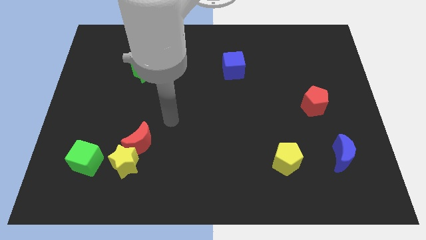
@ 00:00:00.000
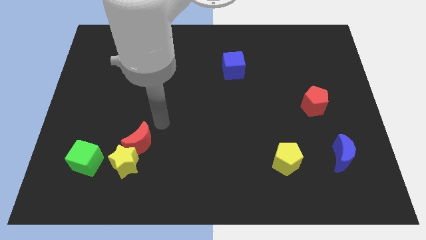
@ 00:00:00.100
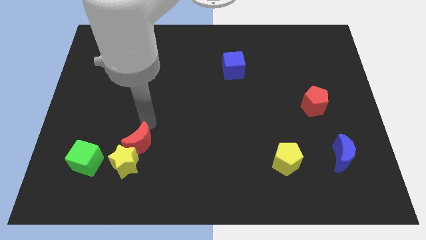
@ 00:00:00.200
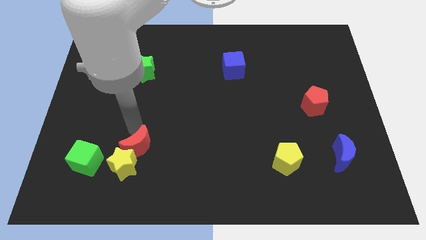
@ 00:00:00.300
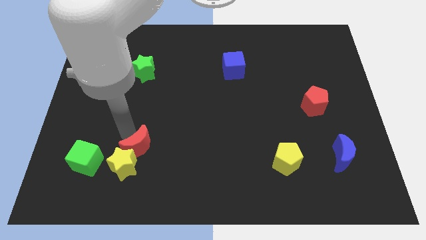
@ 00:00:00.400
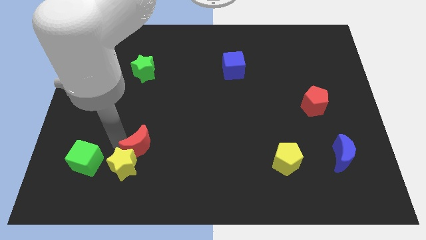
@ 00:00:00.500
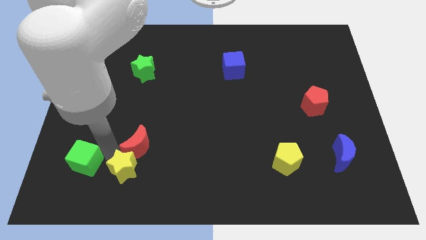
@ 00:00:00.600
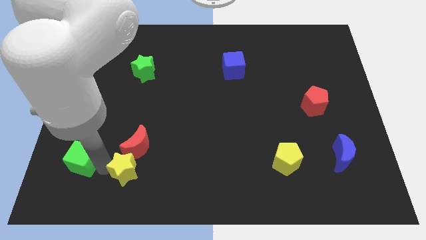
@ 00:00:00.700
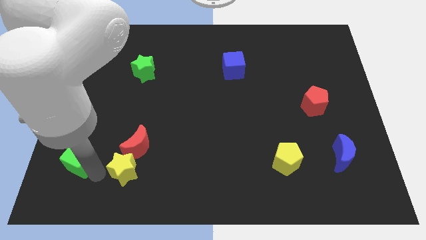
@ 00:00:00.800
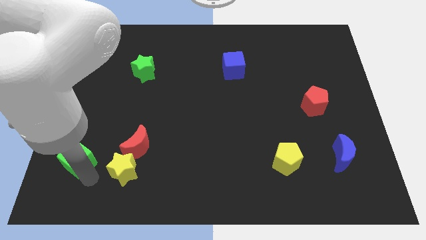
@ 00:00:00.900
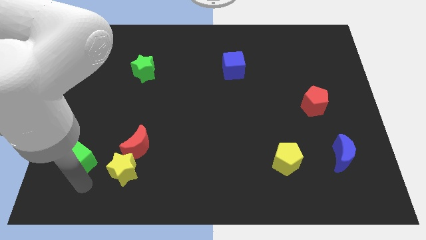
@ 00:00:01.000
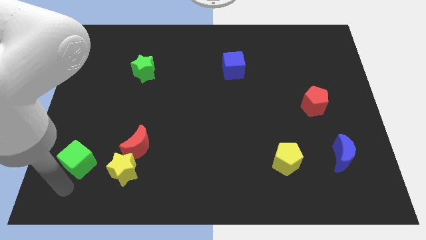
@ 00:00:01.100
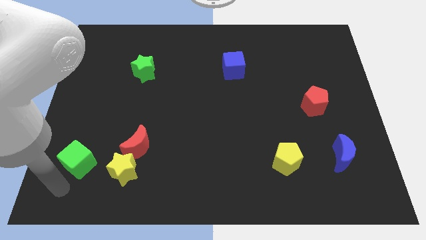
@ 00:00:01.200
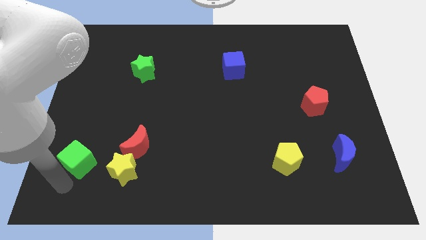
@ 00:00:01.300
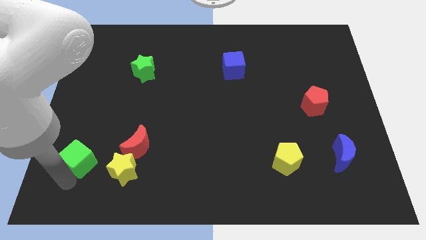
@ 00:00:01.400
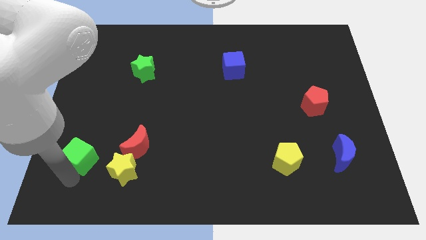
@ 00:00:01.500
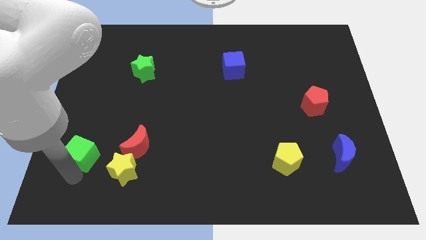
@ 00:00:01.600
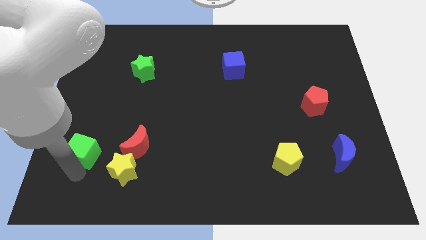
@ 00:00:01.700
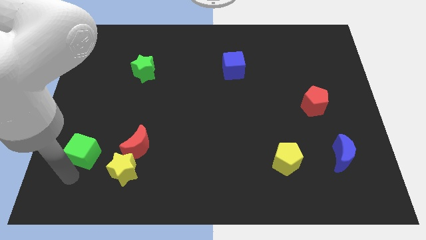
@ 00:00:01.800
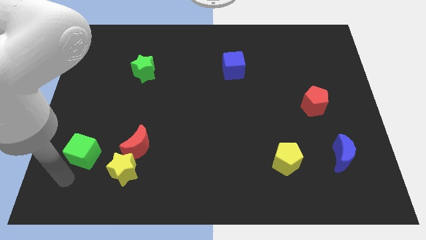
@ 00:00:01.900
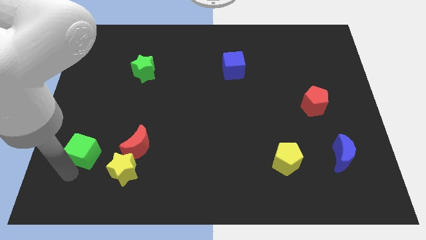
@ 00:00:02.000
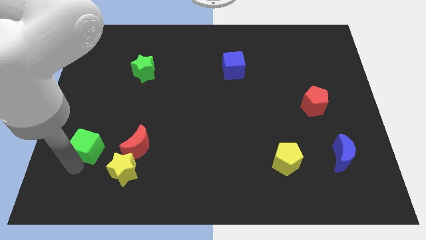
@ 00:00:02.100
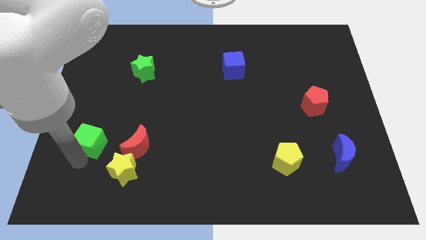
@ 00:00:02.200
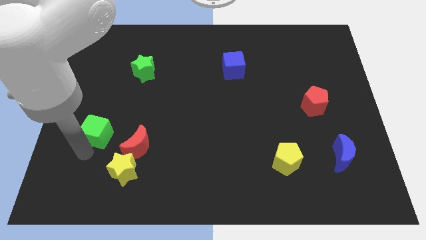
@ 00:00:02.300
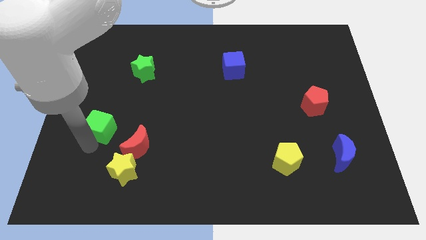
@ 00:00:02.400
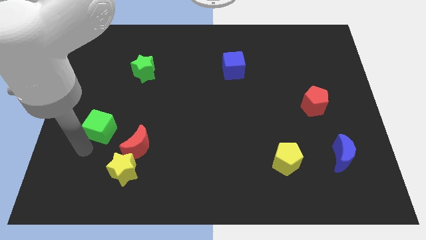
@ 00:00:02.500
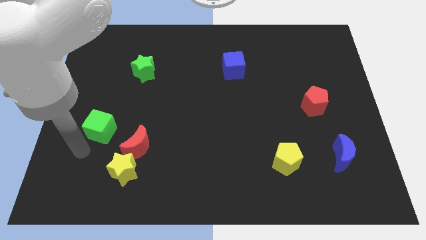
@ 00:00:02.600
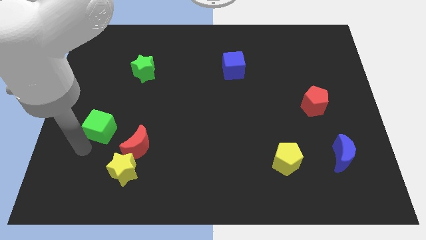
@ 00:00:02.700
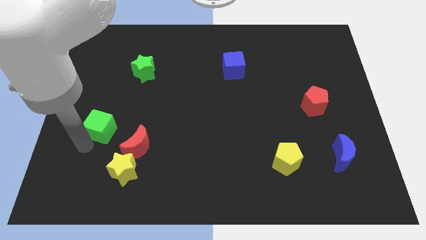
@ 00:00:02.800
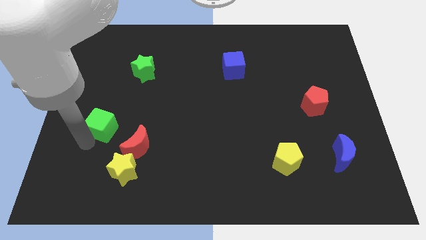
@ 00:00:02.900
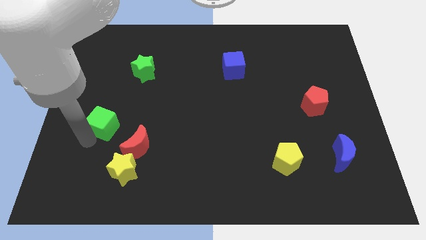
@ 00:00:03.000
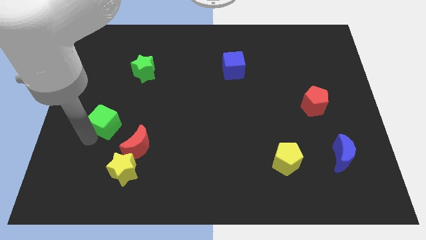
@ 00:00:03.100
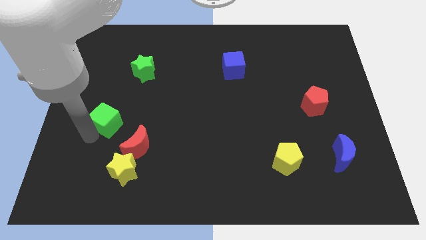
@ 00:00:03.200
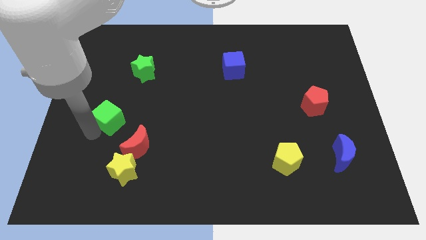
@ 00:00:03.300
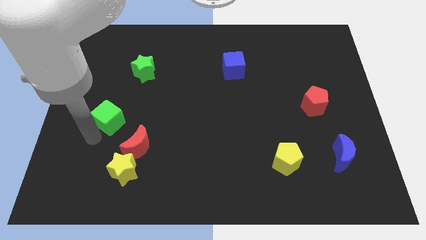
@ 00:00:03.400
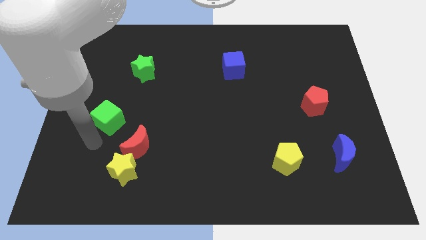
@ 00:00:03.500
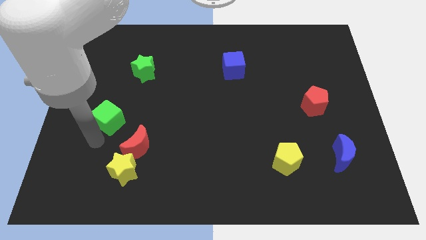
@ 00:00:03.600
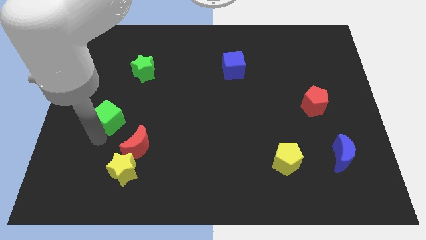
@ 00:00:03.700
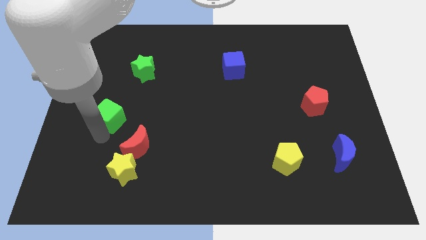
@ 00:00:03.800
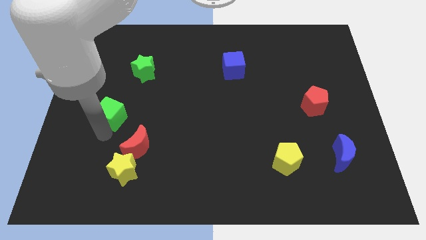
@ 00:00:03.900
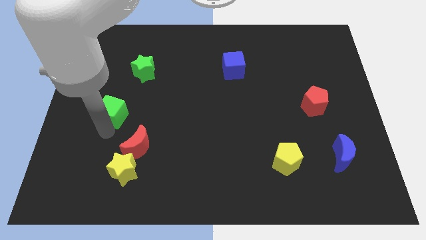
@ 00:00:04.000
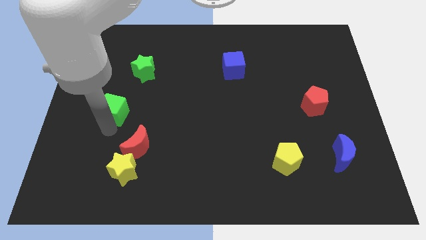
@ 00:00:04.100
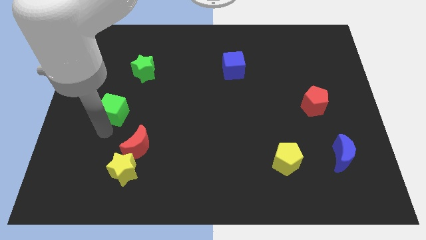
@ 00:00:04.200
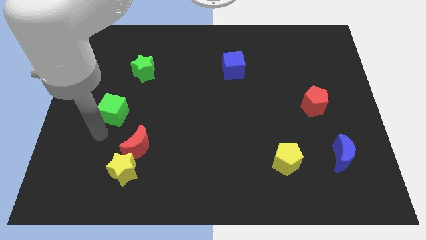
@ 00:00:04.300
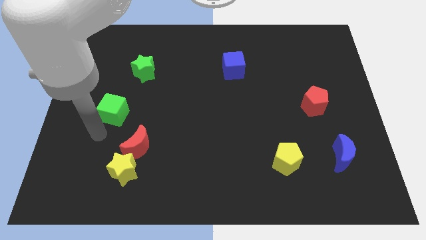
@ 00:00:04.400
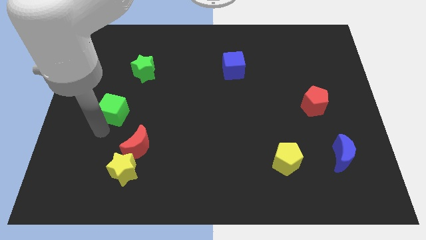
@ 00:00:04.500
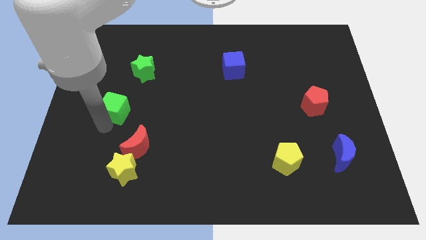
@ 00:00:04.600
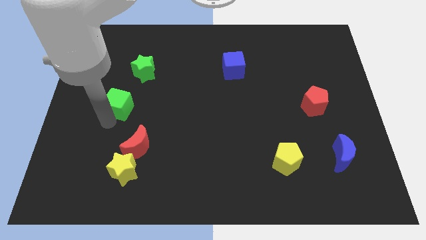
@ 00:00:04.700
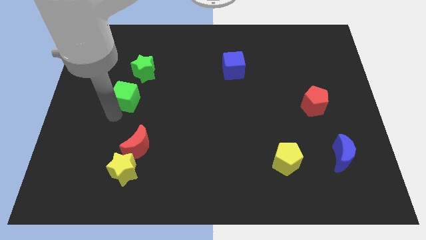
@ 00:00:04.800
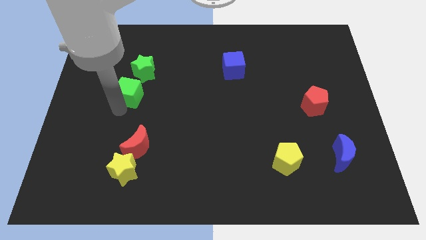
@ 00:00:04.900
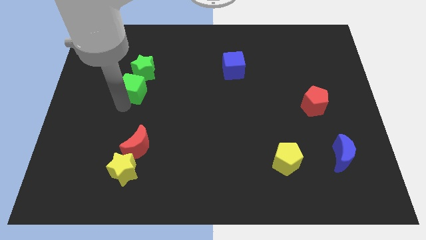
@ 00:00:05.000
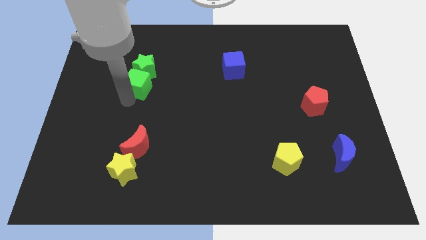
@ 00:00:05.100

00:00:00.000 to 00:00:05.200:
slide the green cube next to the green star

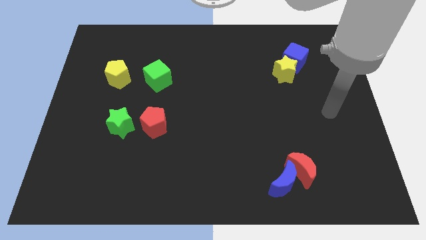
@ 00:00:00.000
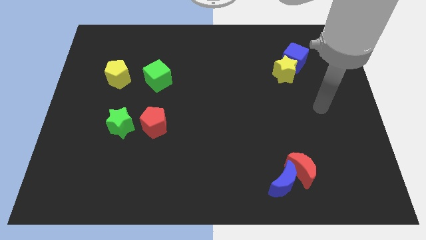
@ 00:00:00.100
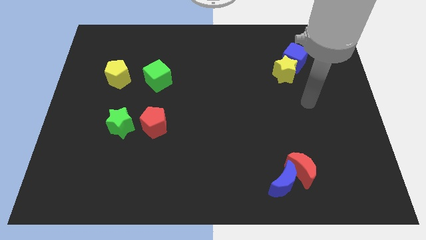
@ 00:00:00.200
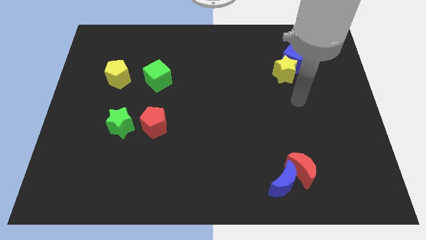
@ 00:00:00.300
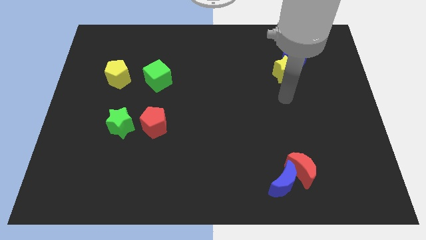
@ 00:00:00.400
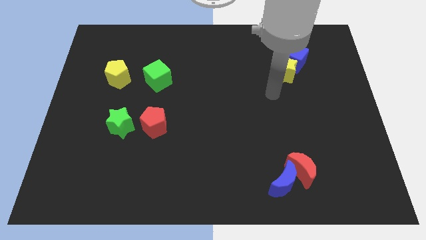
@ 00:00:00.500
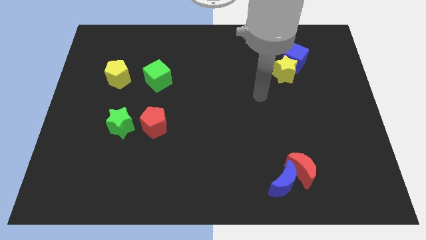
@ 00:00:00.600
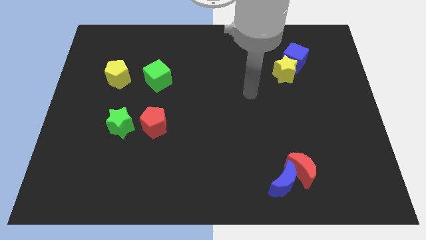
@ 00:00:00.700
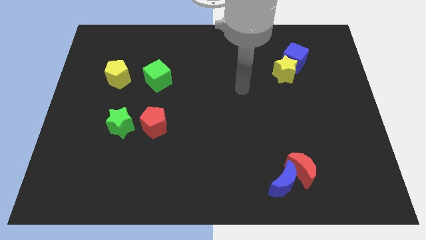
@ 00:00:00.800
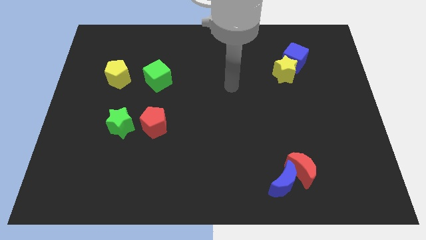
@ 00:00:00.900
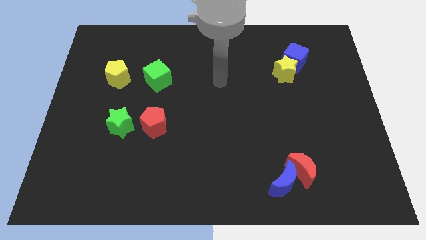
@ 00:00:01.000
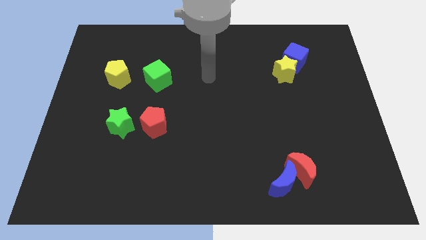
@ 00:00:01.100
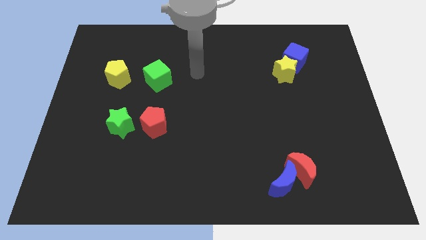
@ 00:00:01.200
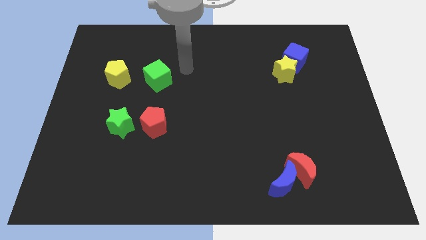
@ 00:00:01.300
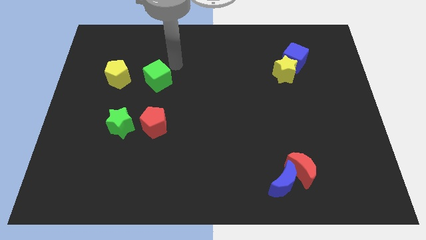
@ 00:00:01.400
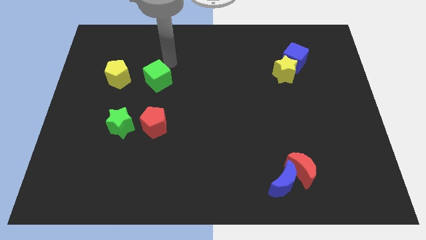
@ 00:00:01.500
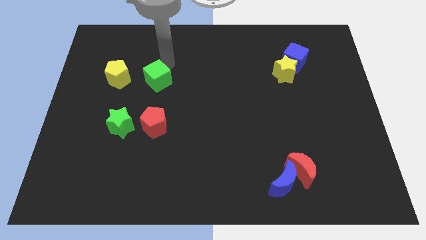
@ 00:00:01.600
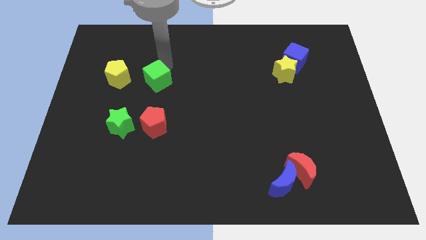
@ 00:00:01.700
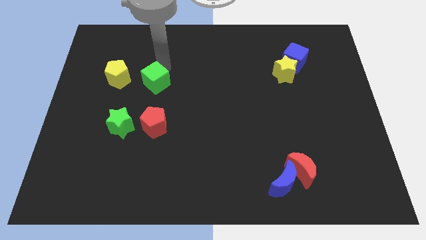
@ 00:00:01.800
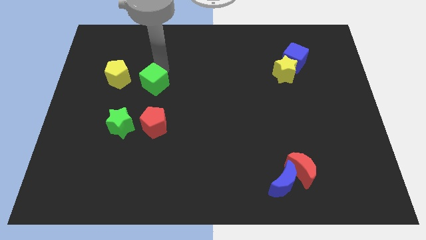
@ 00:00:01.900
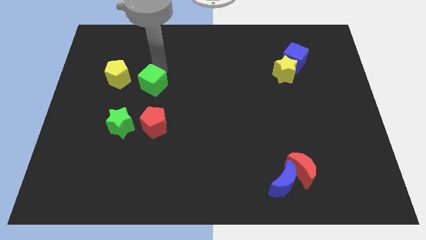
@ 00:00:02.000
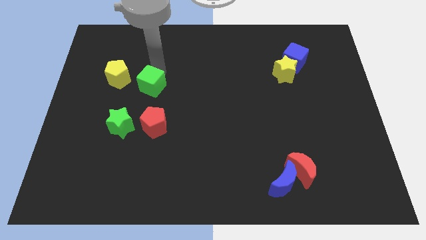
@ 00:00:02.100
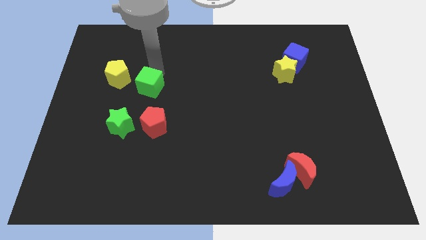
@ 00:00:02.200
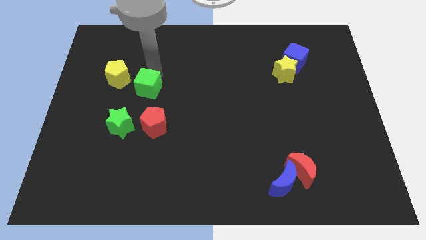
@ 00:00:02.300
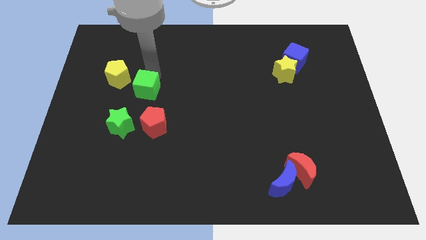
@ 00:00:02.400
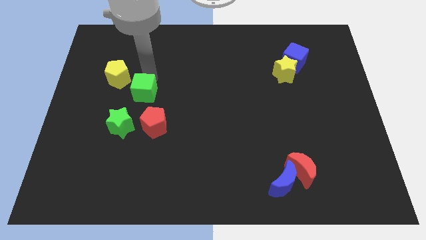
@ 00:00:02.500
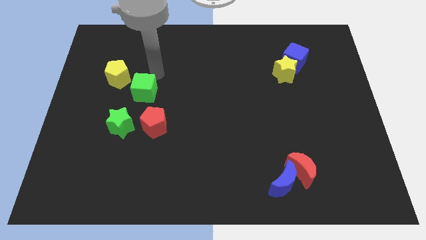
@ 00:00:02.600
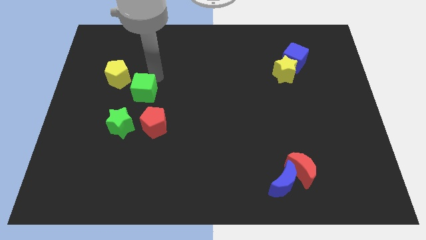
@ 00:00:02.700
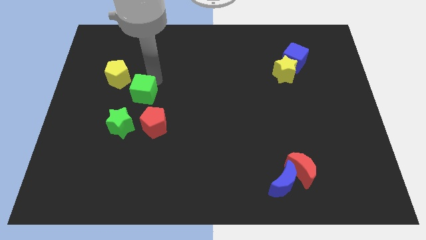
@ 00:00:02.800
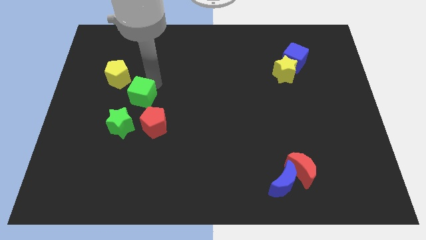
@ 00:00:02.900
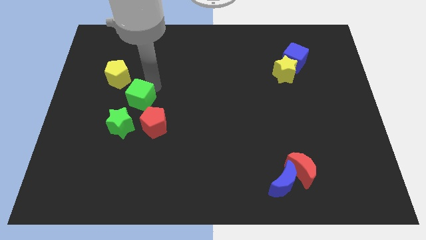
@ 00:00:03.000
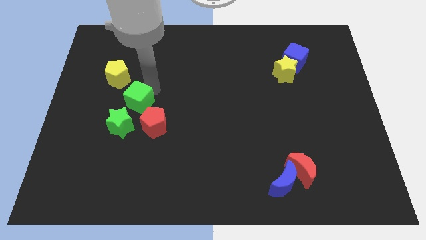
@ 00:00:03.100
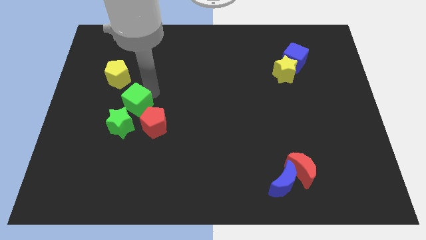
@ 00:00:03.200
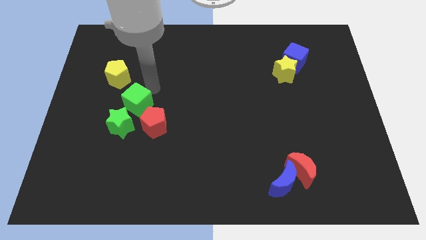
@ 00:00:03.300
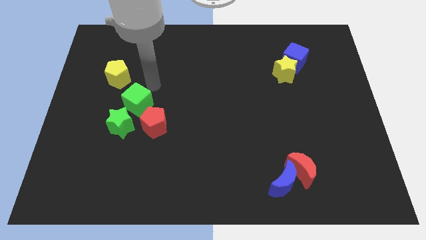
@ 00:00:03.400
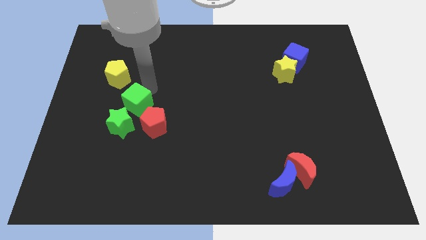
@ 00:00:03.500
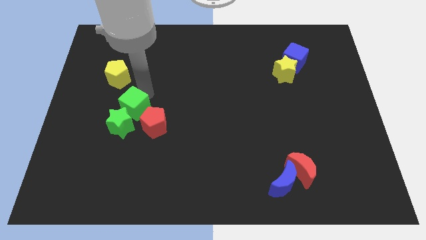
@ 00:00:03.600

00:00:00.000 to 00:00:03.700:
move the green cube towards the green star
